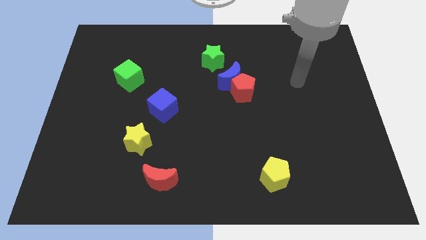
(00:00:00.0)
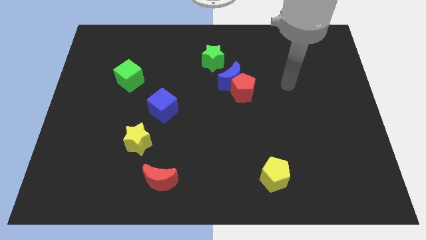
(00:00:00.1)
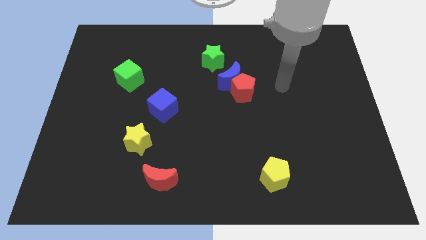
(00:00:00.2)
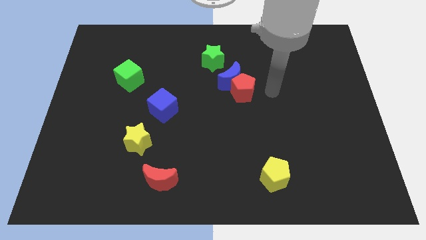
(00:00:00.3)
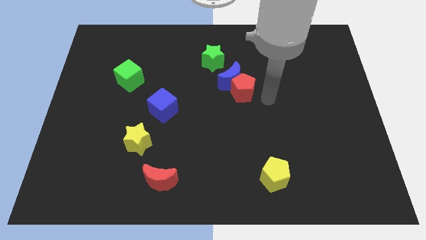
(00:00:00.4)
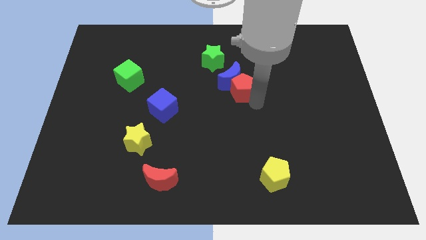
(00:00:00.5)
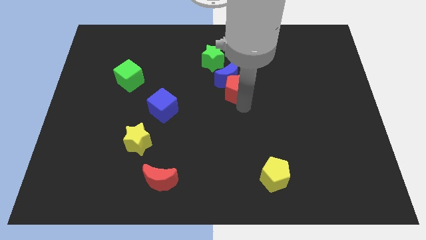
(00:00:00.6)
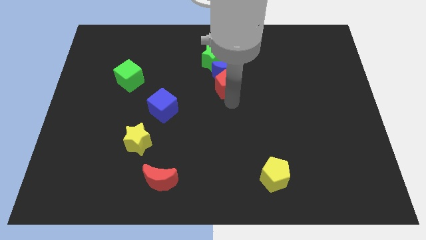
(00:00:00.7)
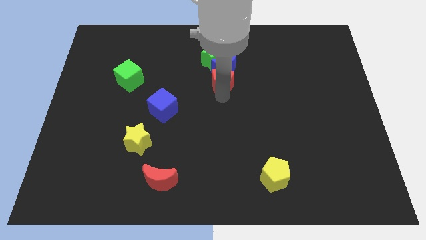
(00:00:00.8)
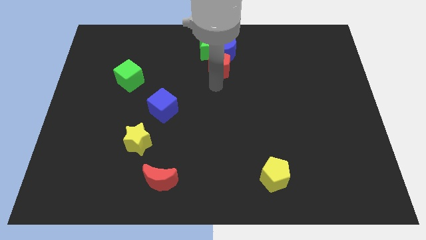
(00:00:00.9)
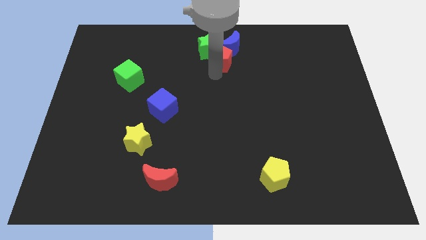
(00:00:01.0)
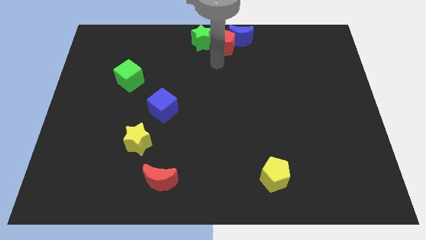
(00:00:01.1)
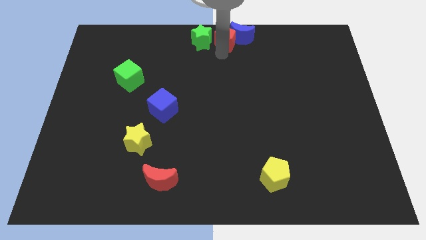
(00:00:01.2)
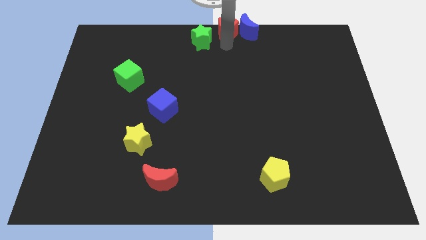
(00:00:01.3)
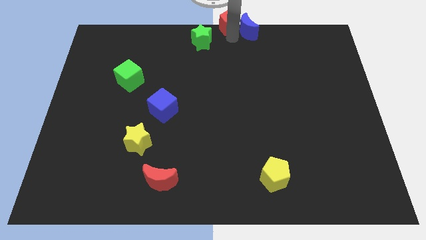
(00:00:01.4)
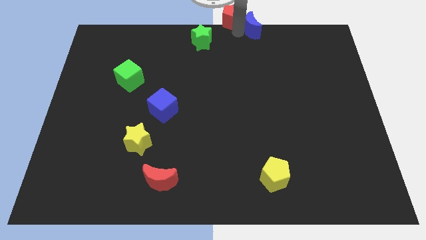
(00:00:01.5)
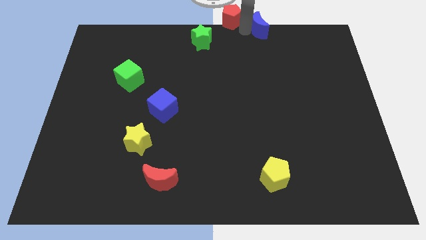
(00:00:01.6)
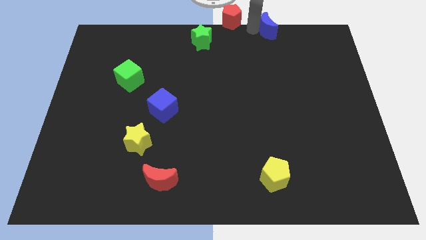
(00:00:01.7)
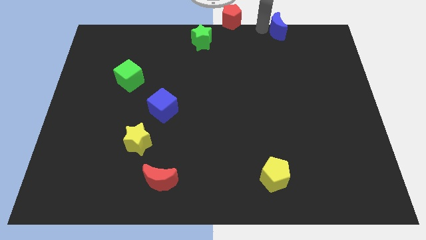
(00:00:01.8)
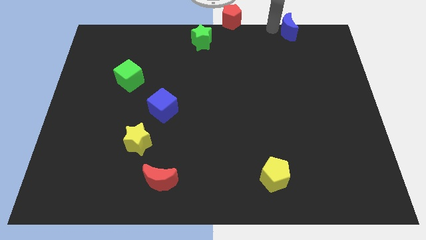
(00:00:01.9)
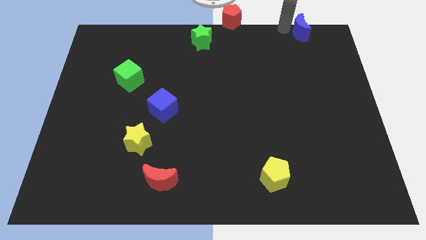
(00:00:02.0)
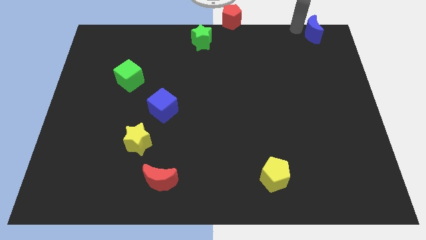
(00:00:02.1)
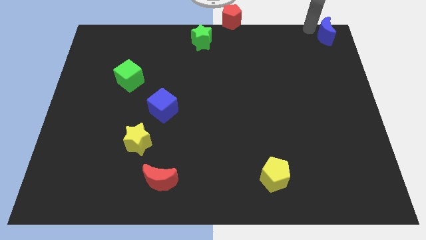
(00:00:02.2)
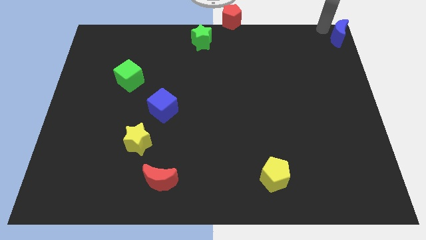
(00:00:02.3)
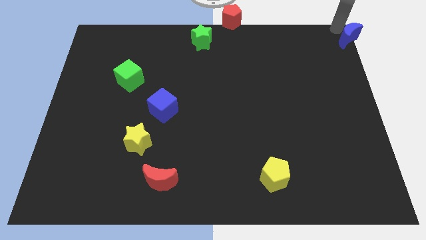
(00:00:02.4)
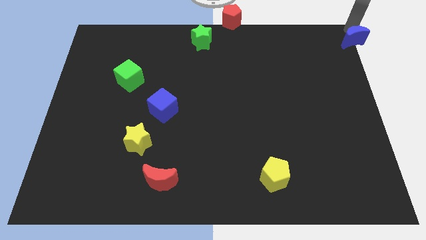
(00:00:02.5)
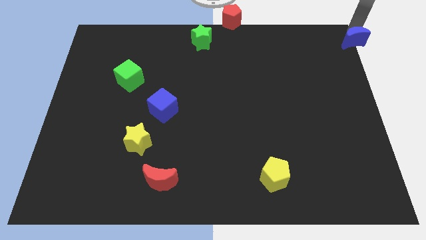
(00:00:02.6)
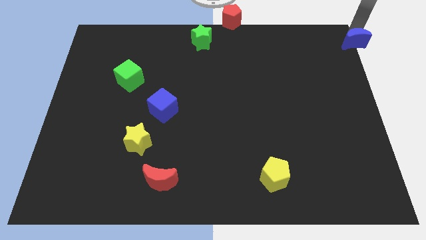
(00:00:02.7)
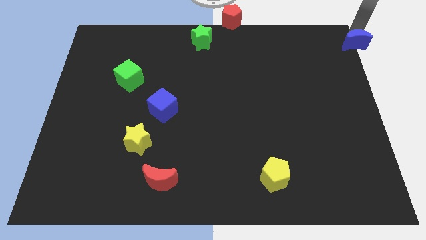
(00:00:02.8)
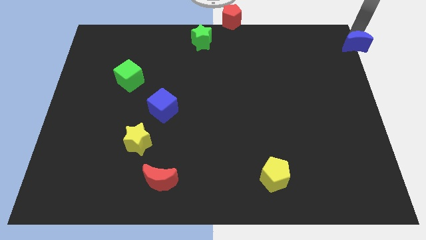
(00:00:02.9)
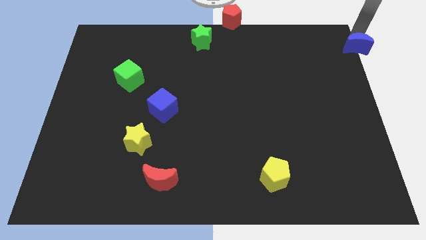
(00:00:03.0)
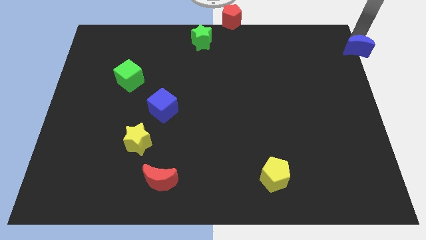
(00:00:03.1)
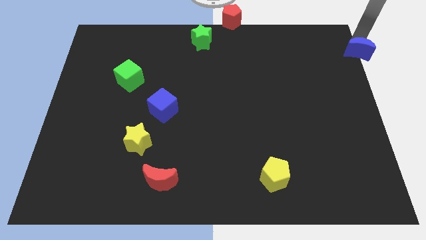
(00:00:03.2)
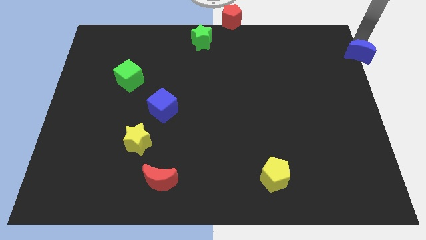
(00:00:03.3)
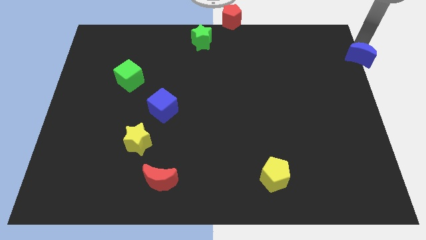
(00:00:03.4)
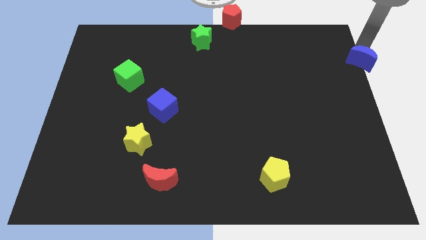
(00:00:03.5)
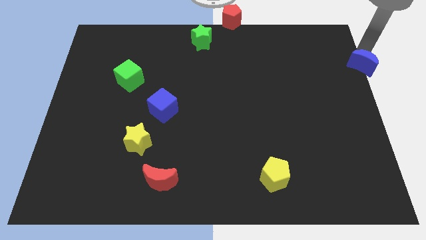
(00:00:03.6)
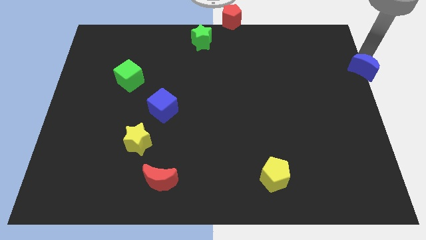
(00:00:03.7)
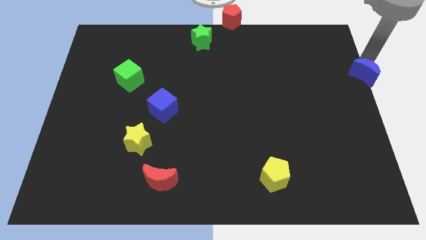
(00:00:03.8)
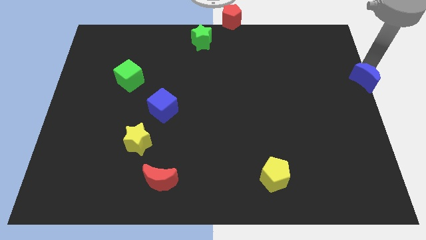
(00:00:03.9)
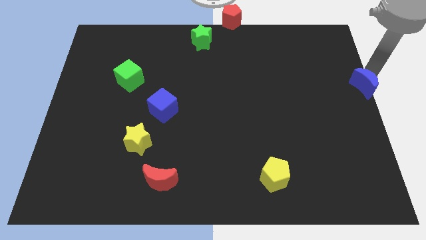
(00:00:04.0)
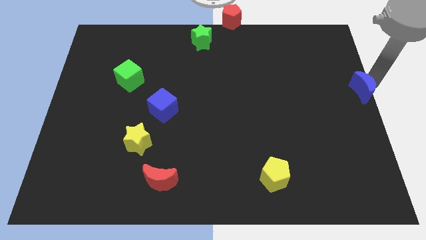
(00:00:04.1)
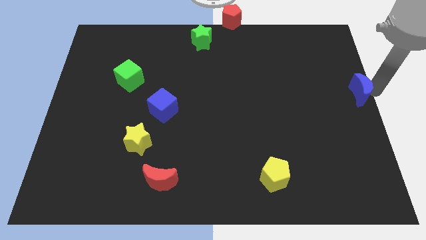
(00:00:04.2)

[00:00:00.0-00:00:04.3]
push the blue moon somewhat right

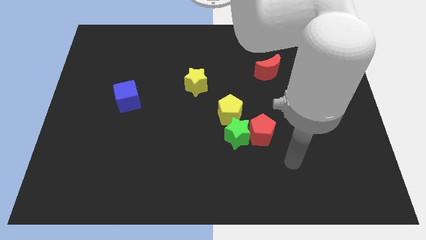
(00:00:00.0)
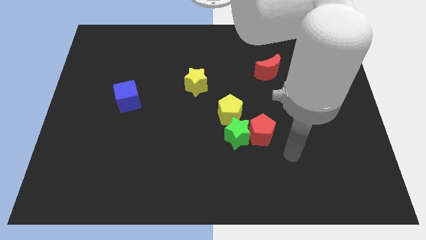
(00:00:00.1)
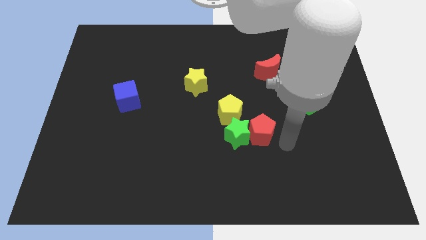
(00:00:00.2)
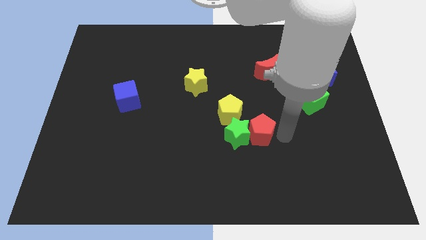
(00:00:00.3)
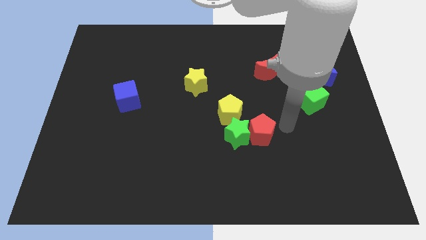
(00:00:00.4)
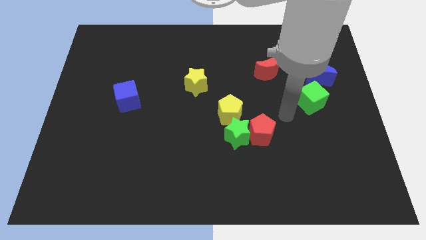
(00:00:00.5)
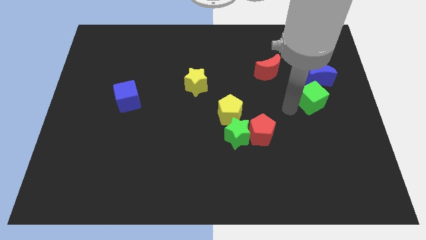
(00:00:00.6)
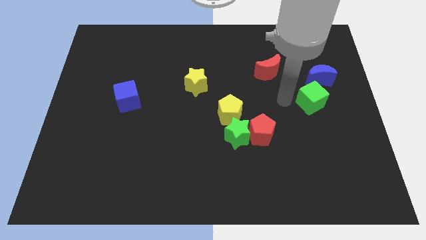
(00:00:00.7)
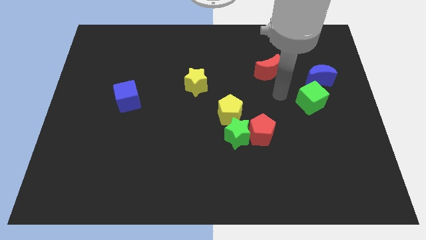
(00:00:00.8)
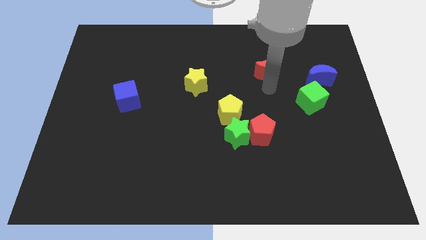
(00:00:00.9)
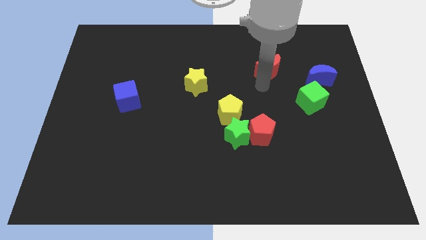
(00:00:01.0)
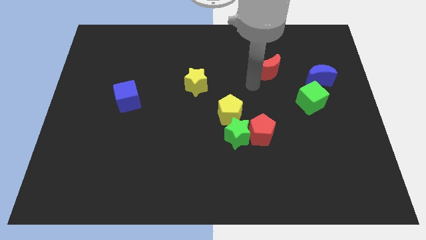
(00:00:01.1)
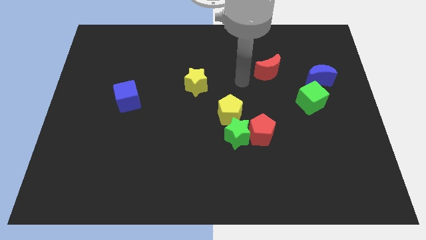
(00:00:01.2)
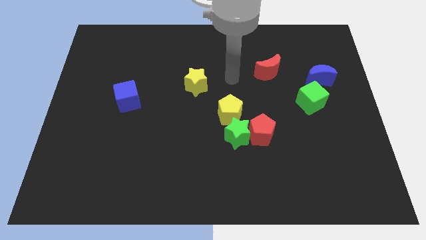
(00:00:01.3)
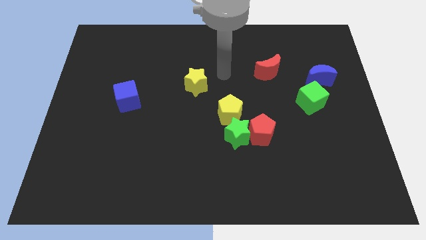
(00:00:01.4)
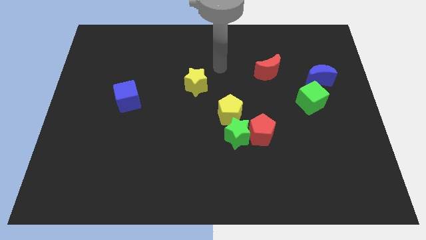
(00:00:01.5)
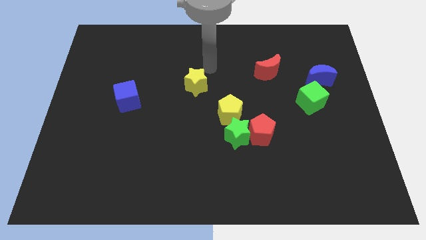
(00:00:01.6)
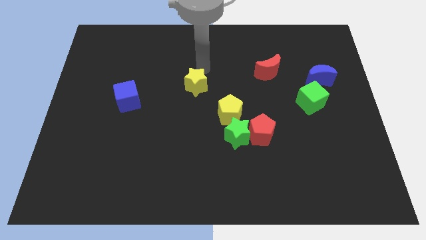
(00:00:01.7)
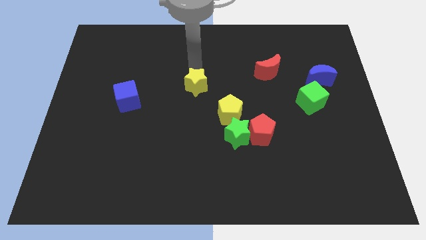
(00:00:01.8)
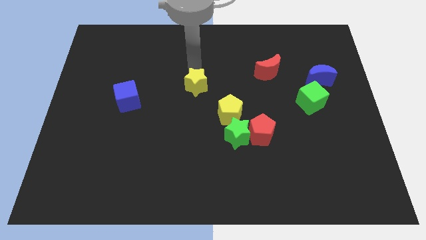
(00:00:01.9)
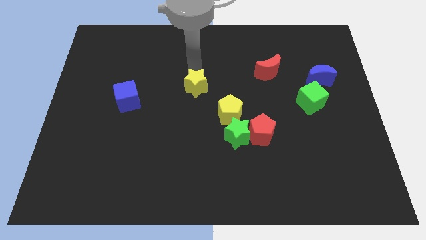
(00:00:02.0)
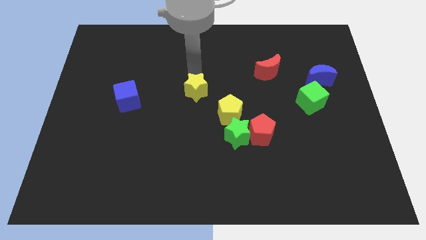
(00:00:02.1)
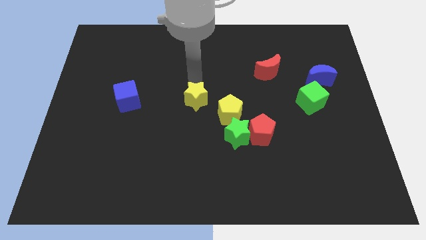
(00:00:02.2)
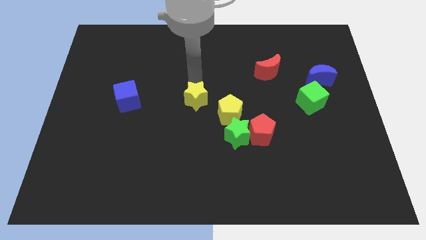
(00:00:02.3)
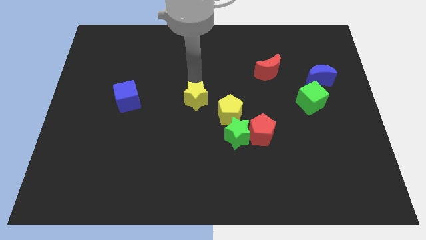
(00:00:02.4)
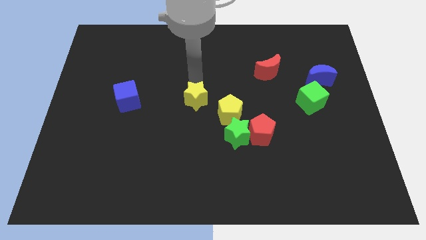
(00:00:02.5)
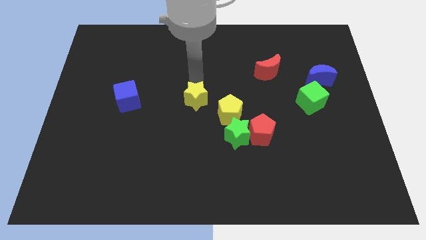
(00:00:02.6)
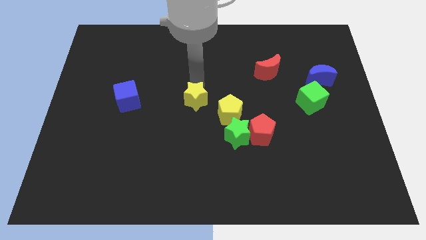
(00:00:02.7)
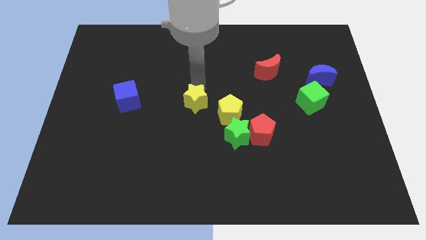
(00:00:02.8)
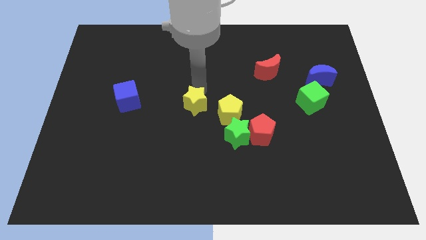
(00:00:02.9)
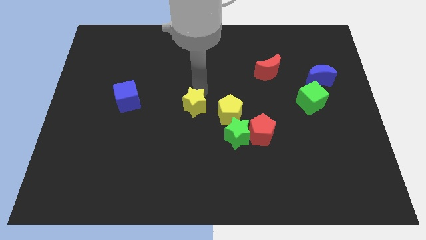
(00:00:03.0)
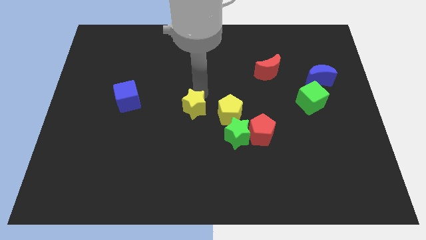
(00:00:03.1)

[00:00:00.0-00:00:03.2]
slide the yellow star down somewhat

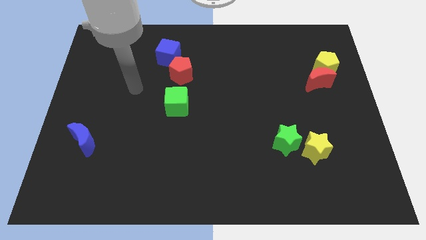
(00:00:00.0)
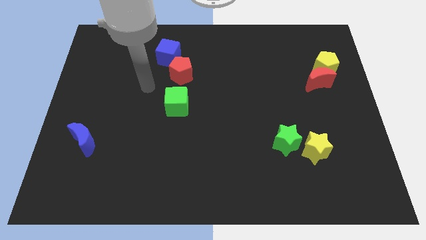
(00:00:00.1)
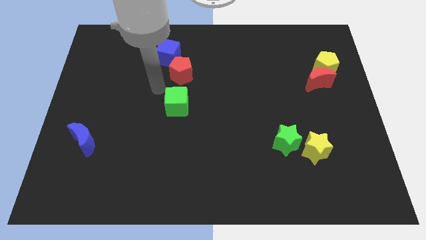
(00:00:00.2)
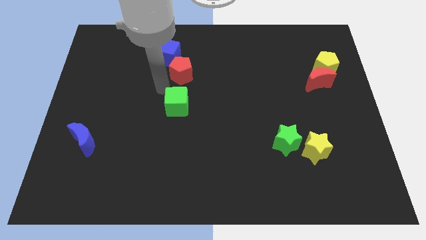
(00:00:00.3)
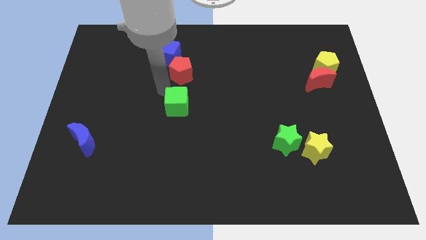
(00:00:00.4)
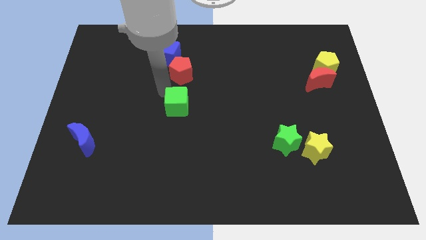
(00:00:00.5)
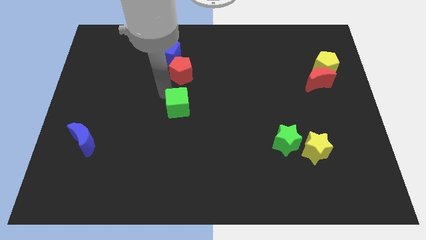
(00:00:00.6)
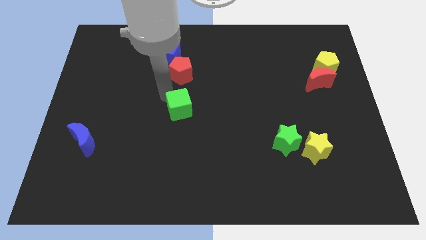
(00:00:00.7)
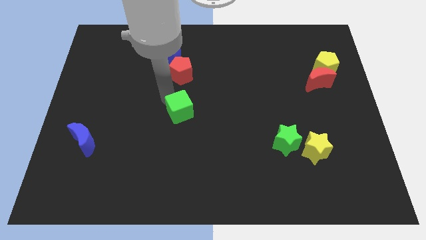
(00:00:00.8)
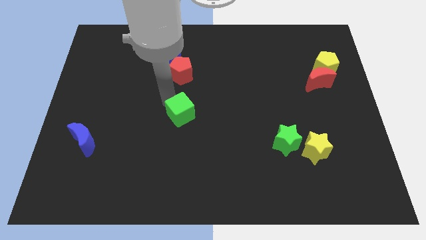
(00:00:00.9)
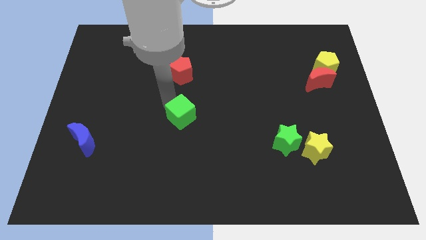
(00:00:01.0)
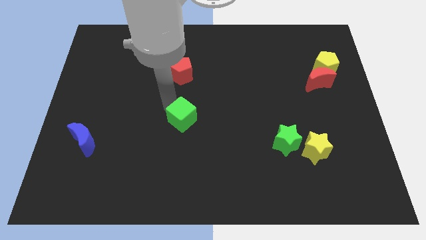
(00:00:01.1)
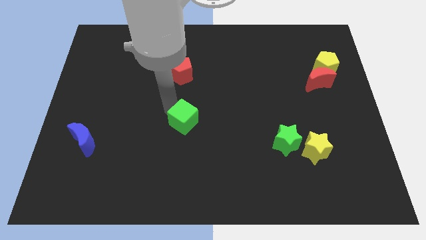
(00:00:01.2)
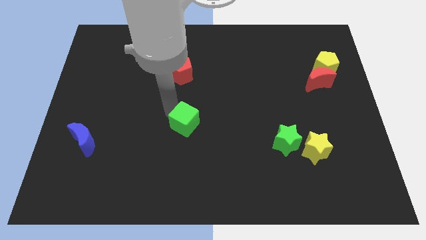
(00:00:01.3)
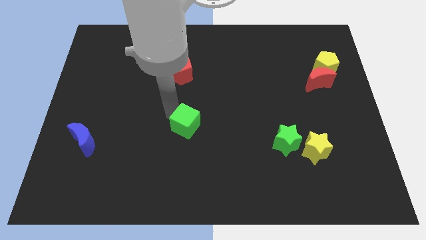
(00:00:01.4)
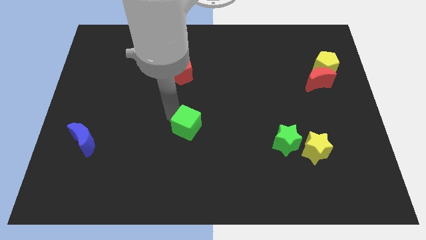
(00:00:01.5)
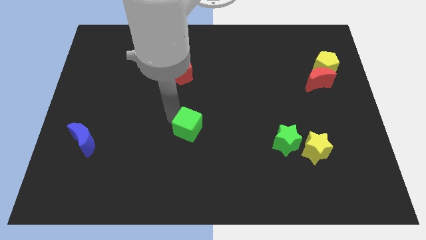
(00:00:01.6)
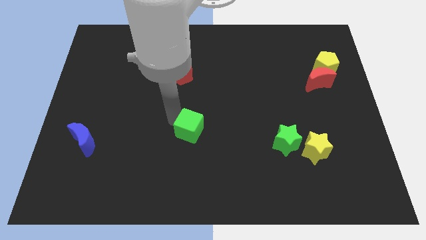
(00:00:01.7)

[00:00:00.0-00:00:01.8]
move the green cube somewhat down and then right
